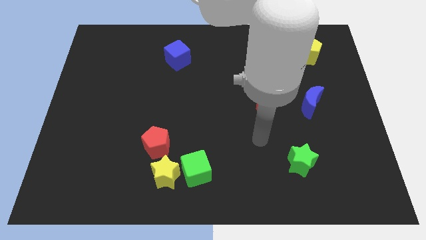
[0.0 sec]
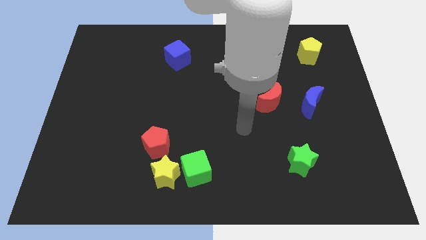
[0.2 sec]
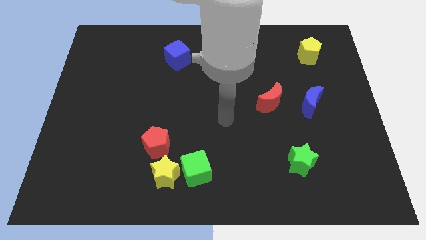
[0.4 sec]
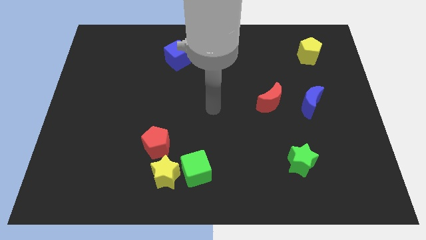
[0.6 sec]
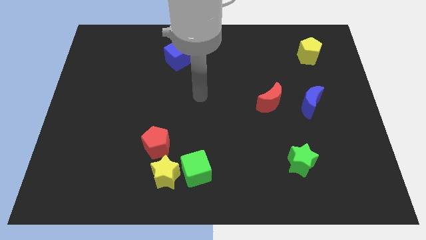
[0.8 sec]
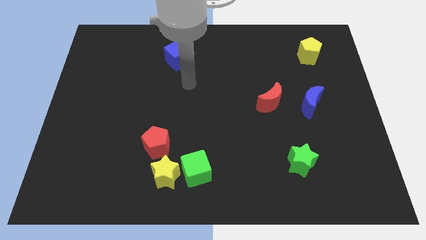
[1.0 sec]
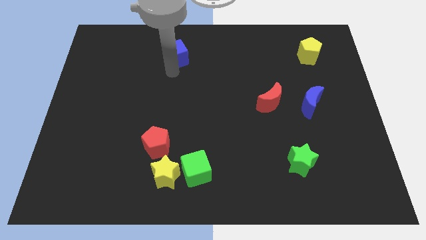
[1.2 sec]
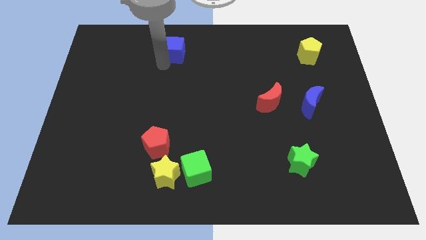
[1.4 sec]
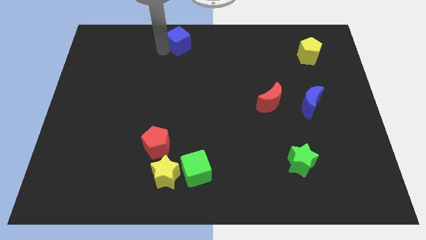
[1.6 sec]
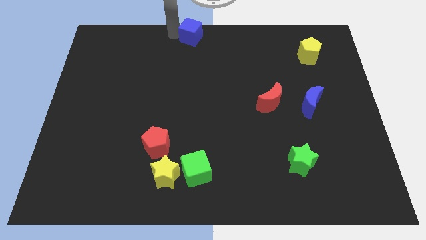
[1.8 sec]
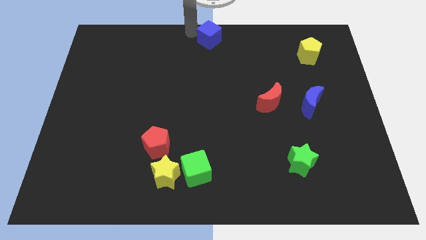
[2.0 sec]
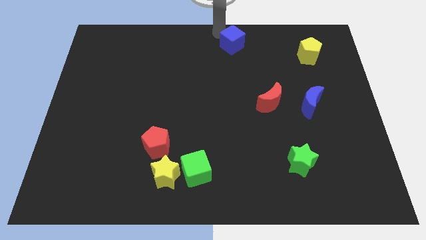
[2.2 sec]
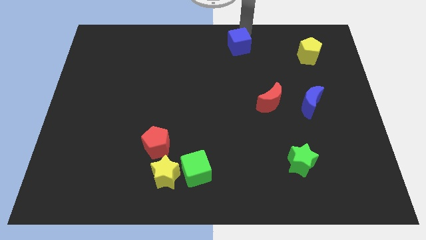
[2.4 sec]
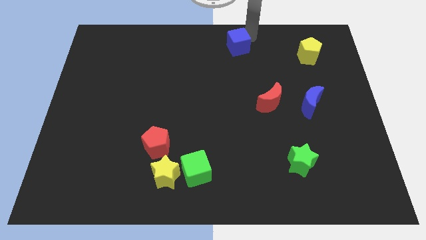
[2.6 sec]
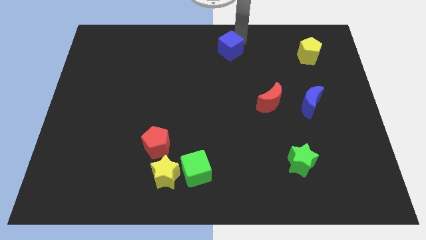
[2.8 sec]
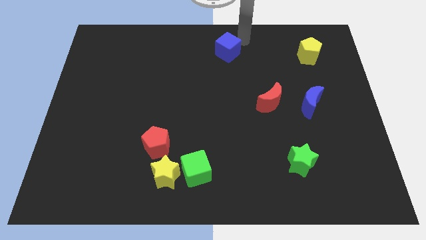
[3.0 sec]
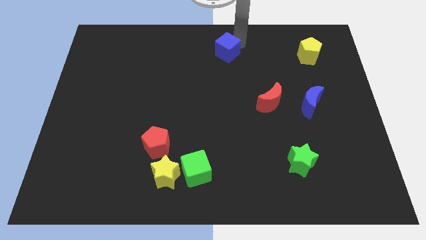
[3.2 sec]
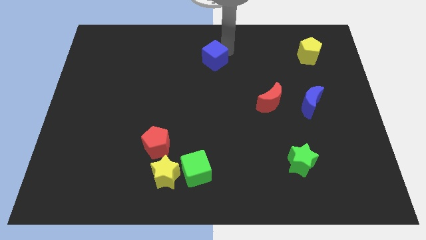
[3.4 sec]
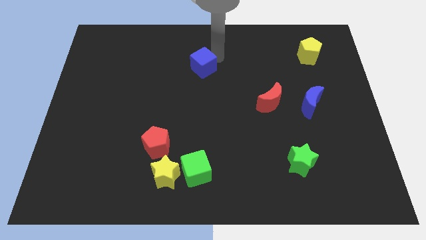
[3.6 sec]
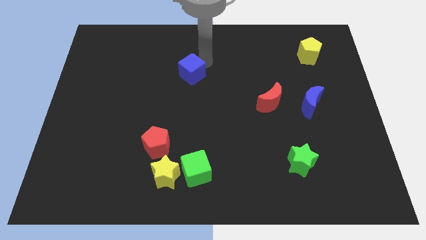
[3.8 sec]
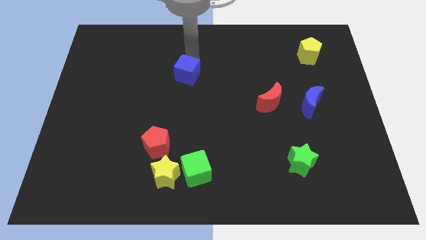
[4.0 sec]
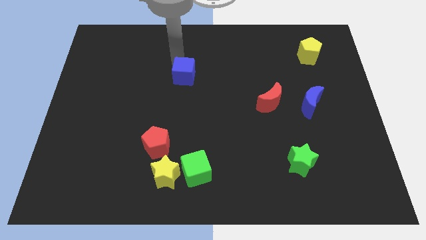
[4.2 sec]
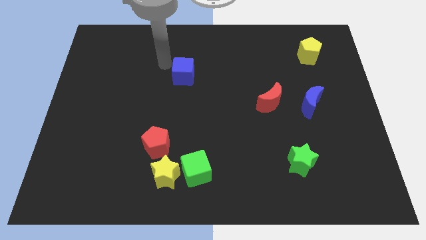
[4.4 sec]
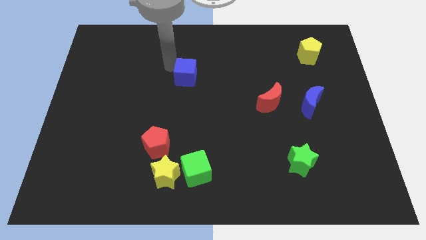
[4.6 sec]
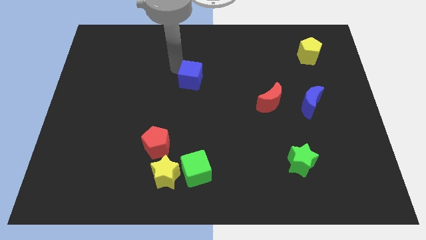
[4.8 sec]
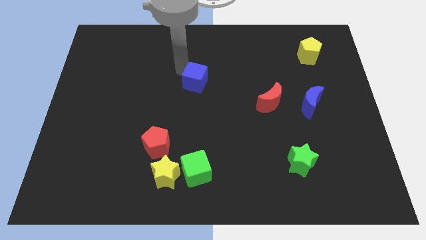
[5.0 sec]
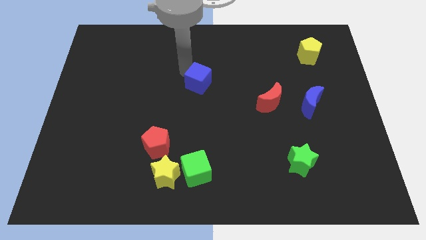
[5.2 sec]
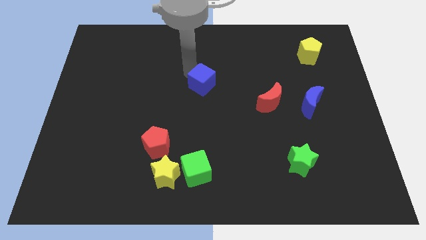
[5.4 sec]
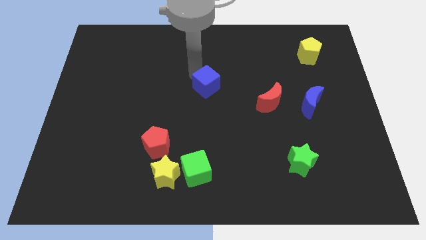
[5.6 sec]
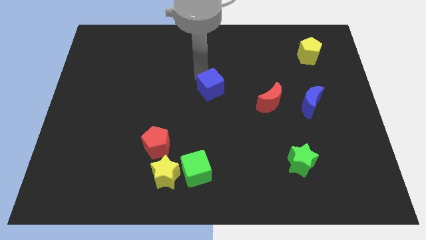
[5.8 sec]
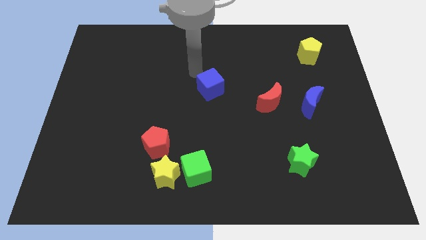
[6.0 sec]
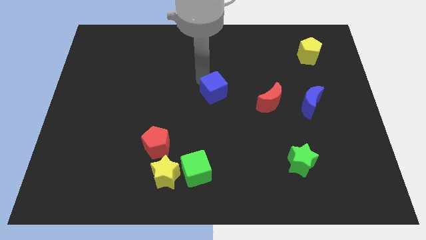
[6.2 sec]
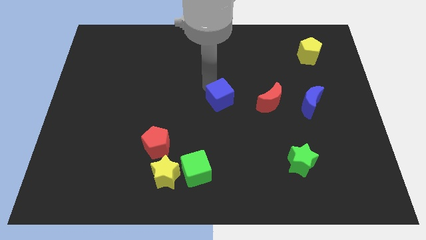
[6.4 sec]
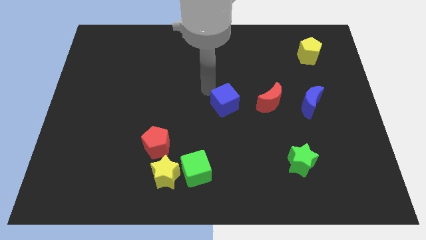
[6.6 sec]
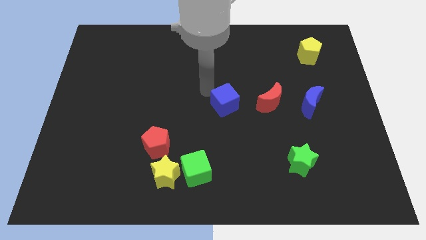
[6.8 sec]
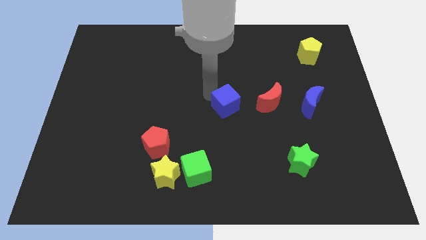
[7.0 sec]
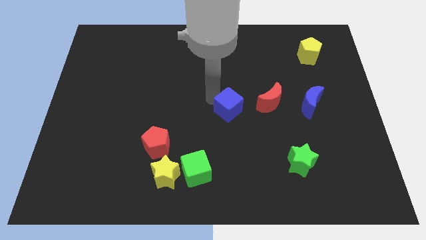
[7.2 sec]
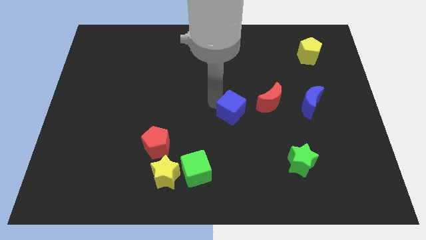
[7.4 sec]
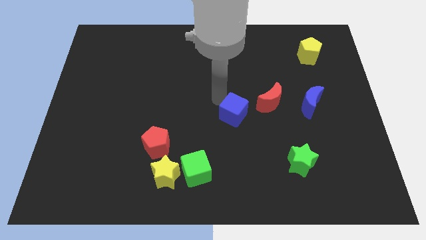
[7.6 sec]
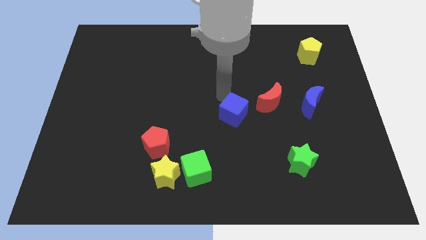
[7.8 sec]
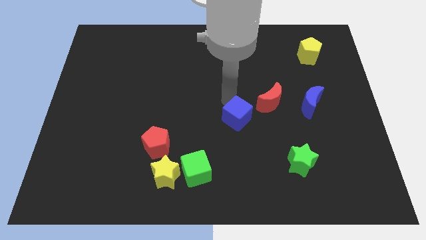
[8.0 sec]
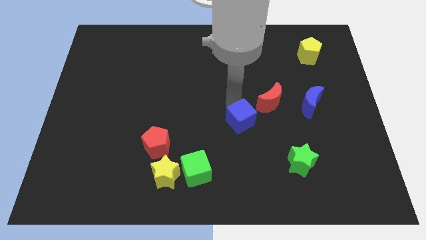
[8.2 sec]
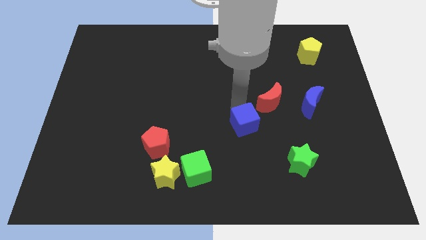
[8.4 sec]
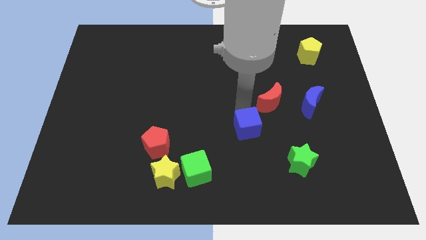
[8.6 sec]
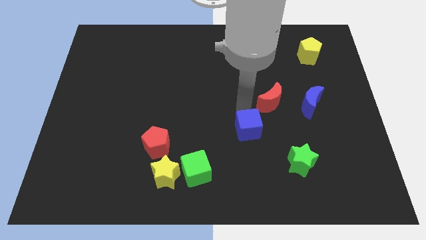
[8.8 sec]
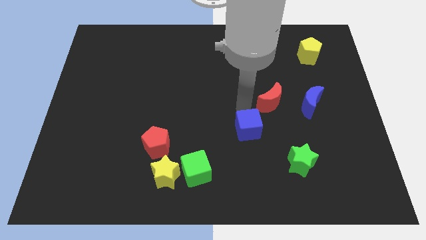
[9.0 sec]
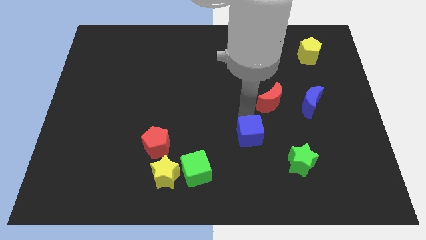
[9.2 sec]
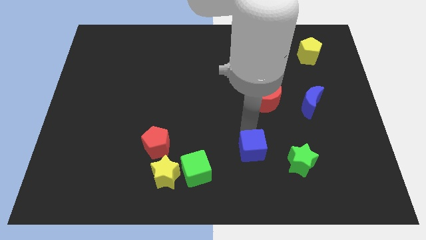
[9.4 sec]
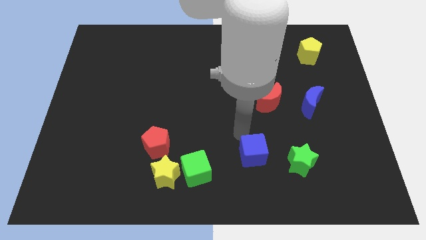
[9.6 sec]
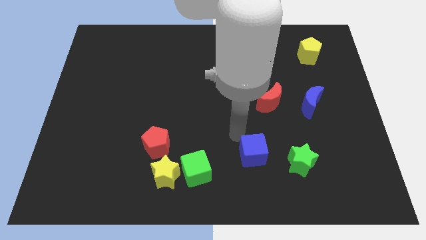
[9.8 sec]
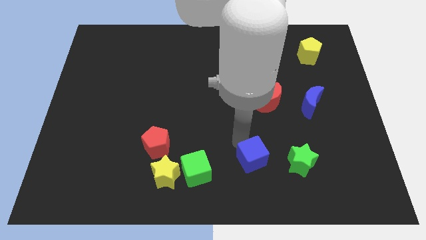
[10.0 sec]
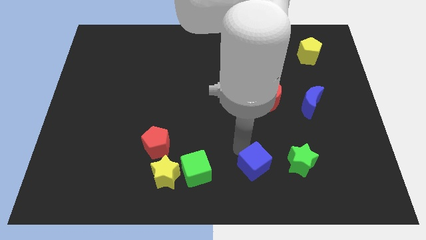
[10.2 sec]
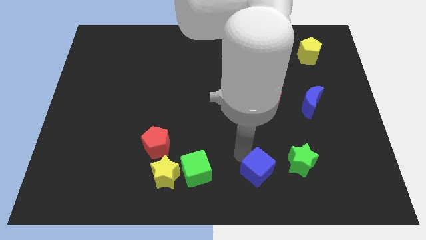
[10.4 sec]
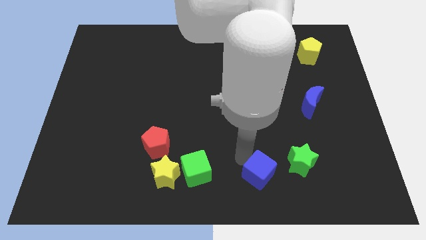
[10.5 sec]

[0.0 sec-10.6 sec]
put the blue cube to the bottom left side of the green star

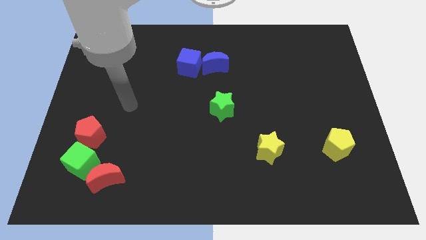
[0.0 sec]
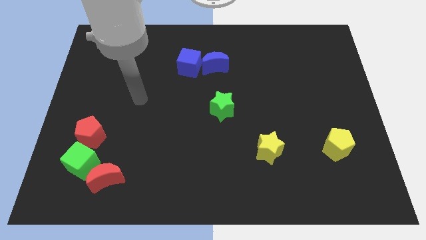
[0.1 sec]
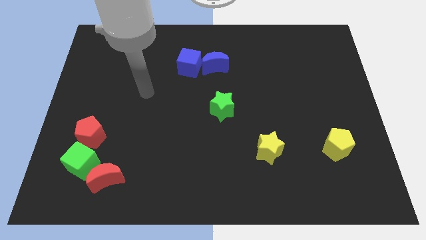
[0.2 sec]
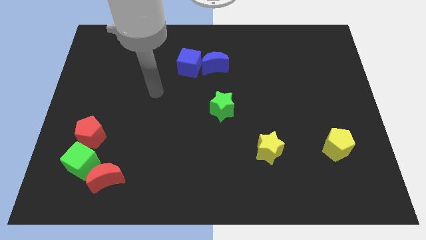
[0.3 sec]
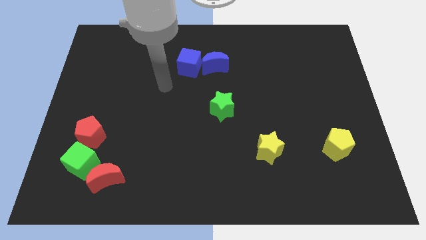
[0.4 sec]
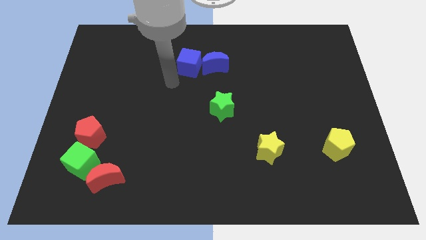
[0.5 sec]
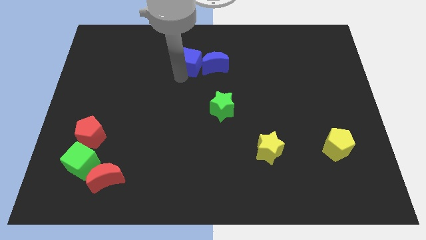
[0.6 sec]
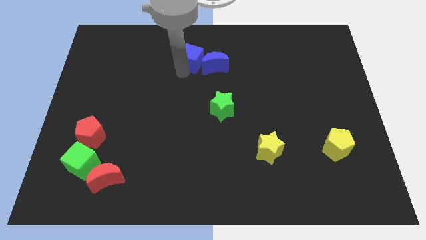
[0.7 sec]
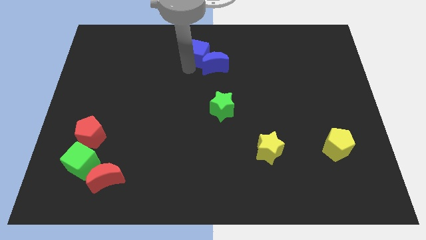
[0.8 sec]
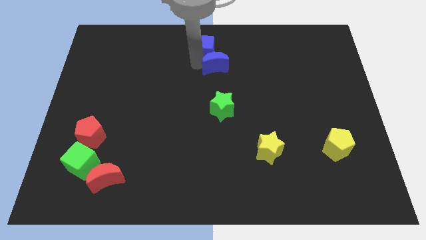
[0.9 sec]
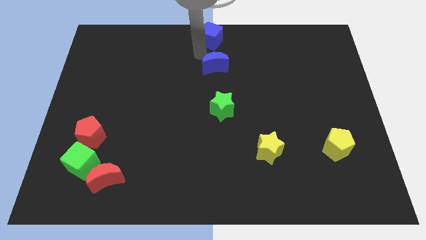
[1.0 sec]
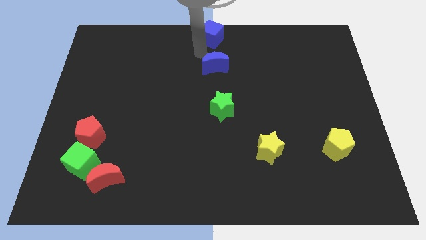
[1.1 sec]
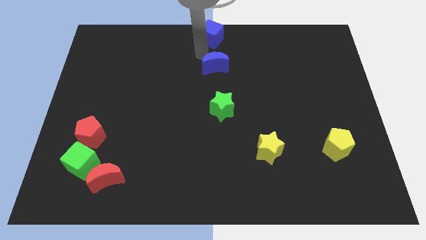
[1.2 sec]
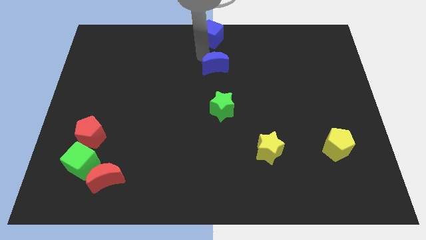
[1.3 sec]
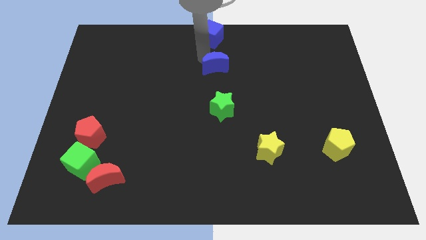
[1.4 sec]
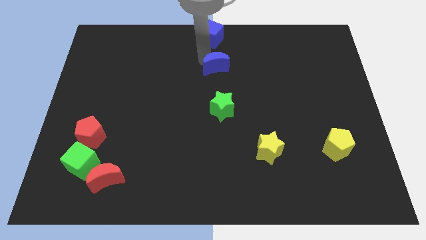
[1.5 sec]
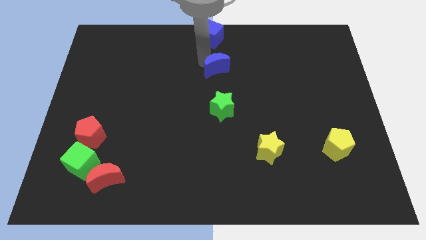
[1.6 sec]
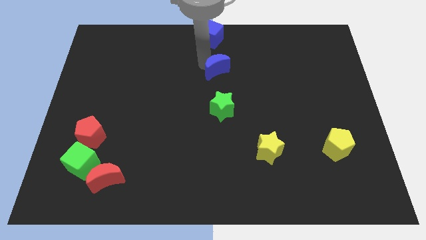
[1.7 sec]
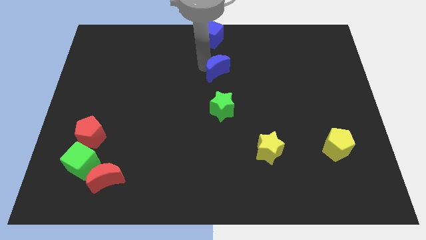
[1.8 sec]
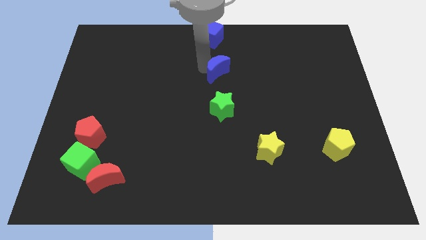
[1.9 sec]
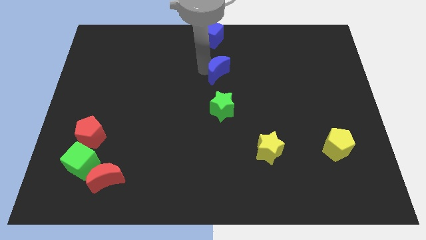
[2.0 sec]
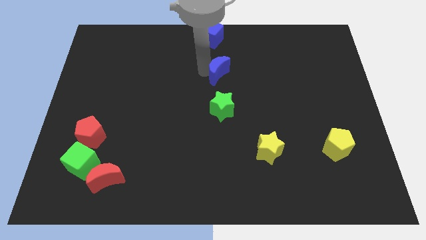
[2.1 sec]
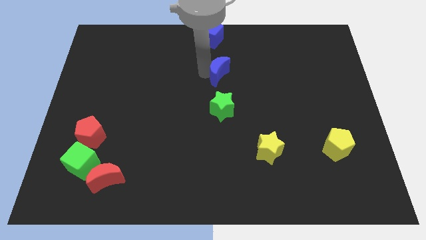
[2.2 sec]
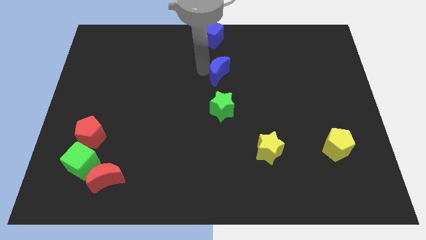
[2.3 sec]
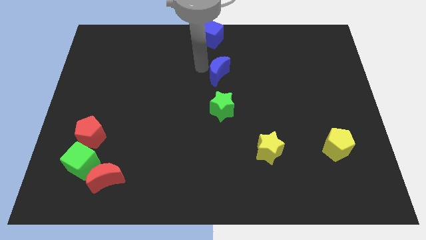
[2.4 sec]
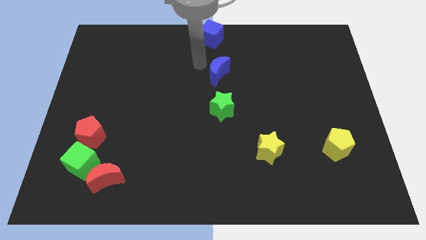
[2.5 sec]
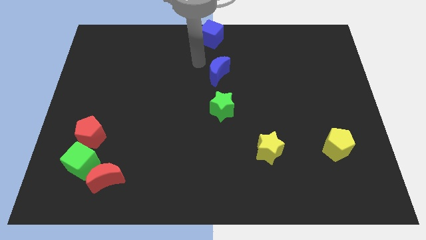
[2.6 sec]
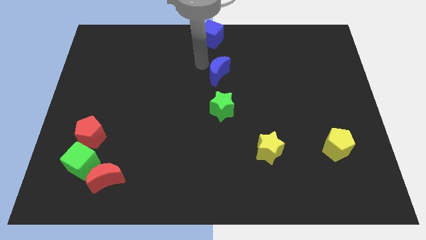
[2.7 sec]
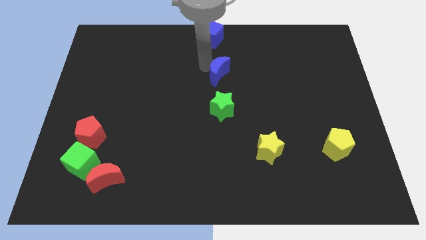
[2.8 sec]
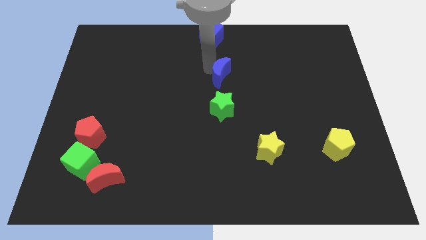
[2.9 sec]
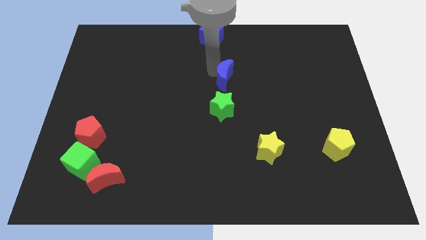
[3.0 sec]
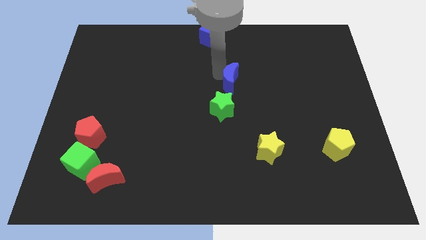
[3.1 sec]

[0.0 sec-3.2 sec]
put the blue moon to the top right of the green star
